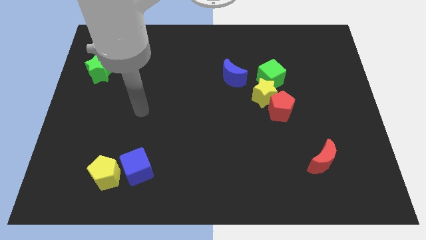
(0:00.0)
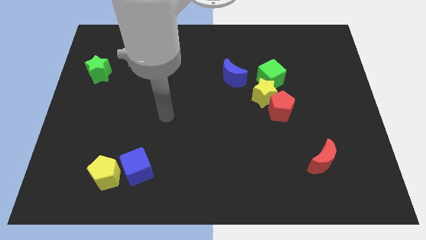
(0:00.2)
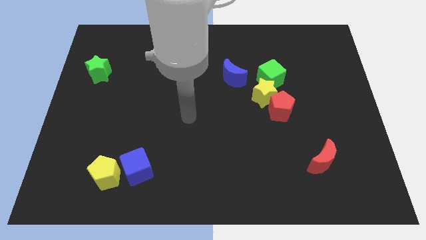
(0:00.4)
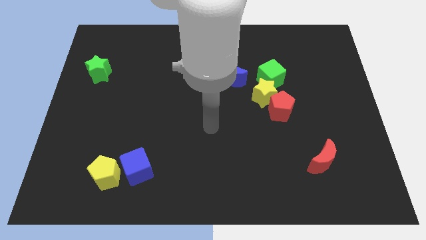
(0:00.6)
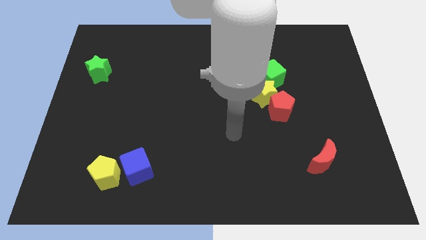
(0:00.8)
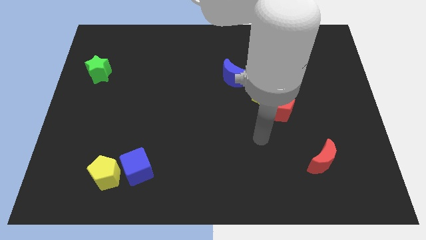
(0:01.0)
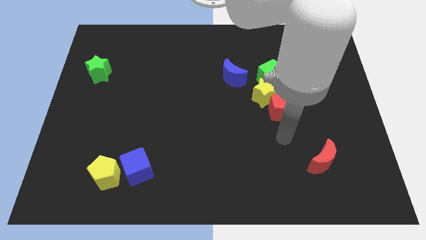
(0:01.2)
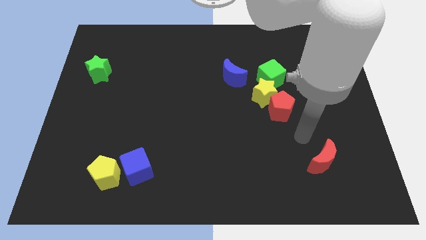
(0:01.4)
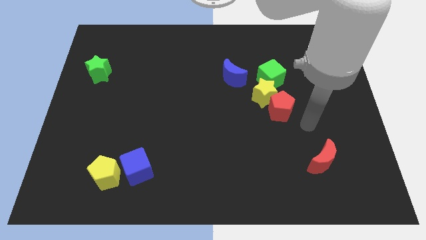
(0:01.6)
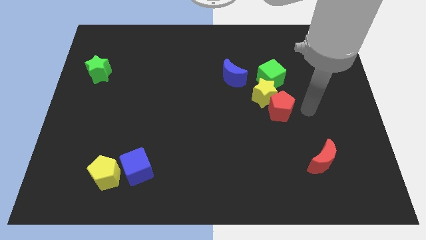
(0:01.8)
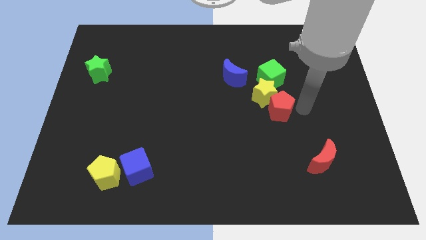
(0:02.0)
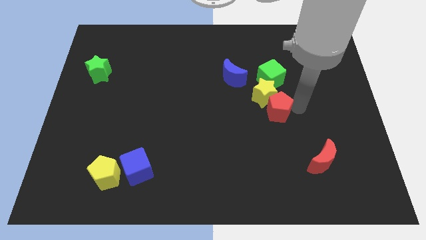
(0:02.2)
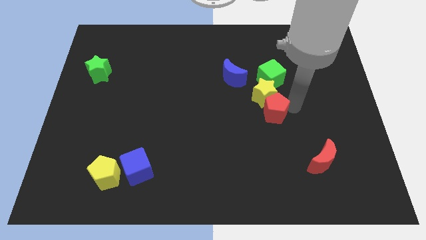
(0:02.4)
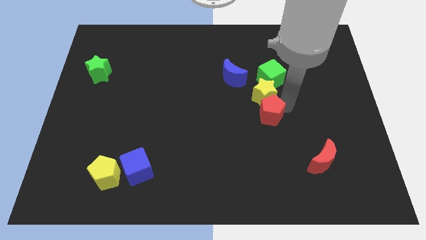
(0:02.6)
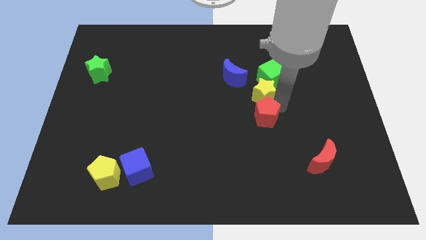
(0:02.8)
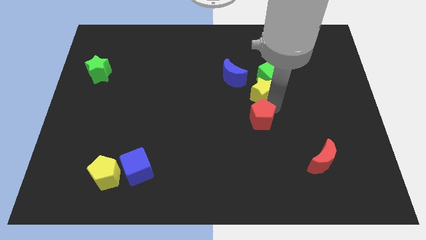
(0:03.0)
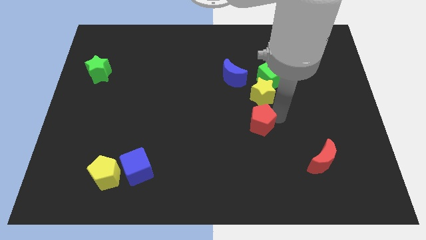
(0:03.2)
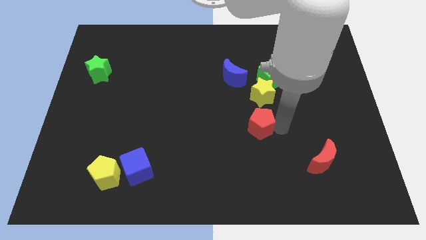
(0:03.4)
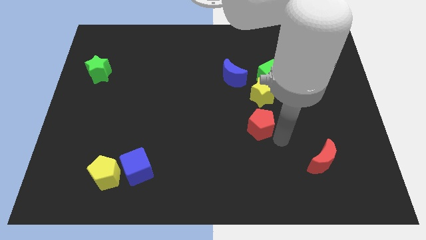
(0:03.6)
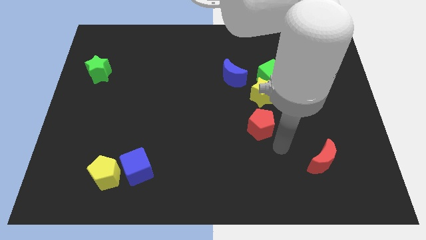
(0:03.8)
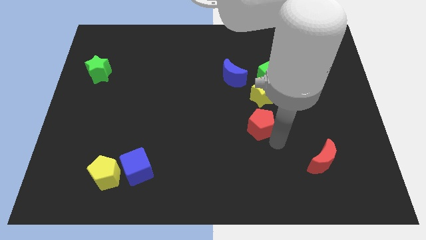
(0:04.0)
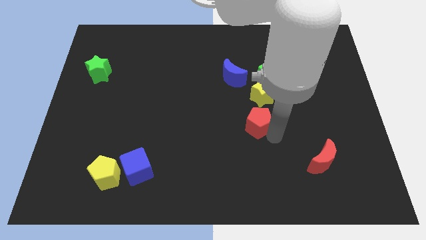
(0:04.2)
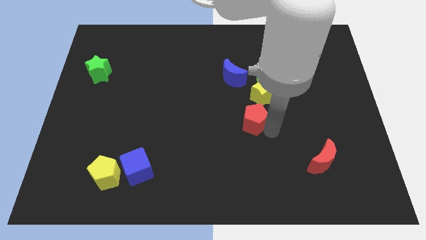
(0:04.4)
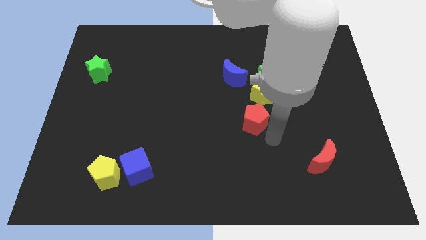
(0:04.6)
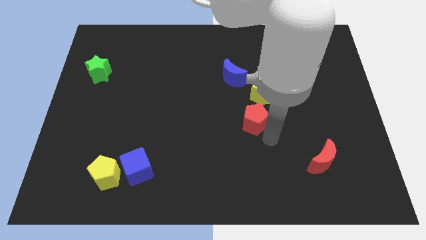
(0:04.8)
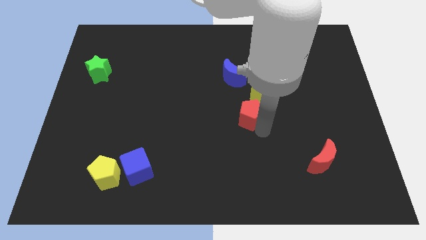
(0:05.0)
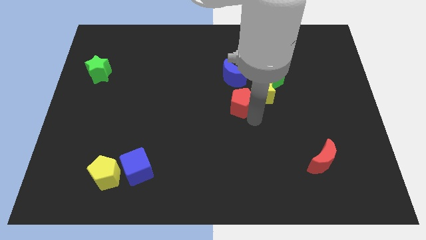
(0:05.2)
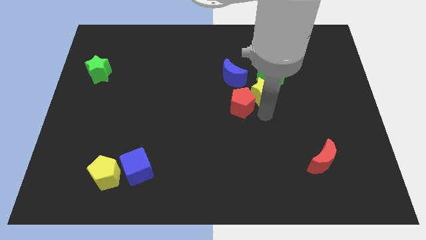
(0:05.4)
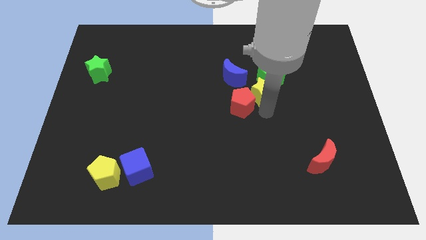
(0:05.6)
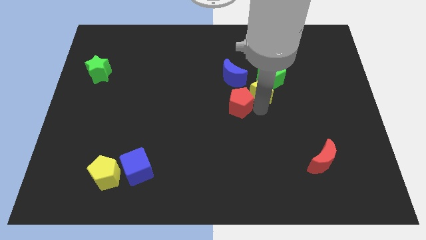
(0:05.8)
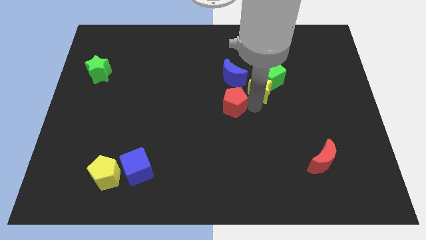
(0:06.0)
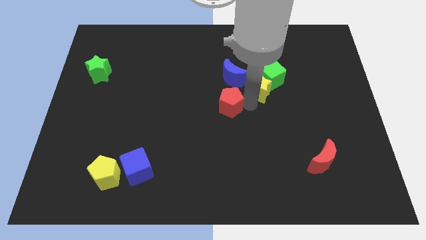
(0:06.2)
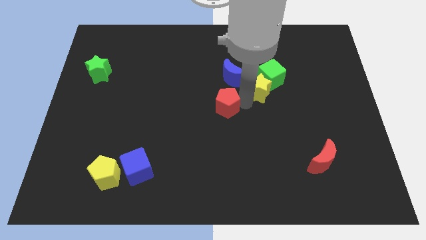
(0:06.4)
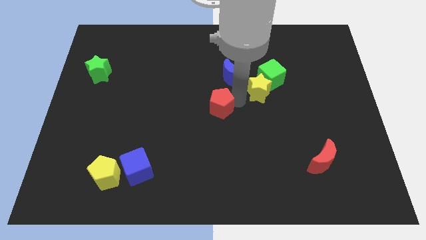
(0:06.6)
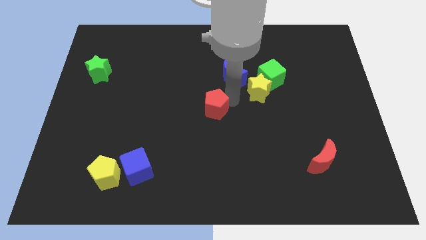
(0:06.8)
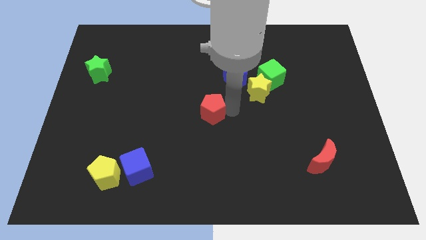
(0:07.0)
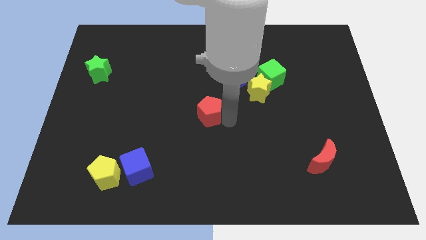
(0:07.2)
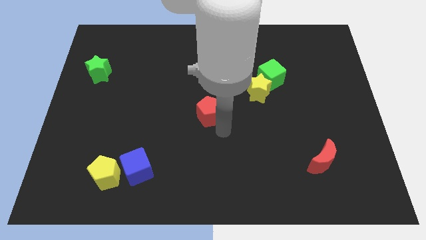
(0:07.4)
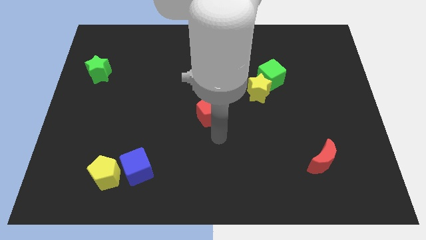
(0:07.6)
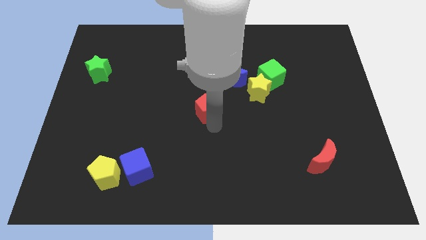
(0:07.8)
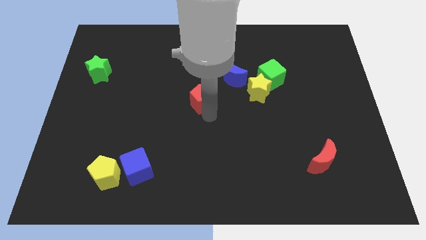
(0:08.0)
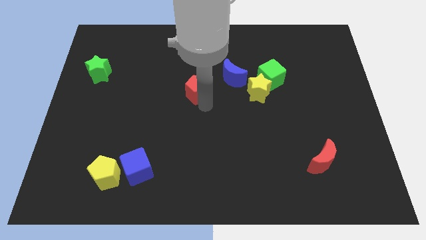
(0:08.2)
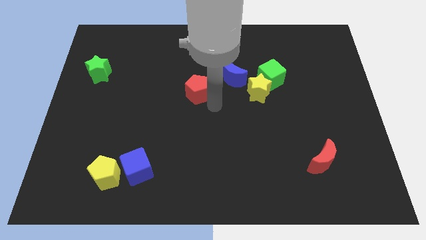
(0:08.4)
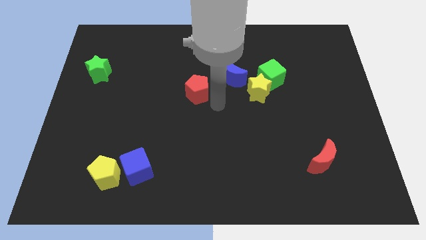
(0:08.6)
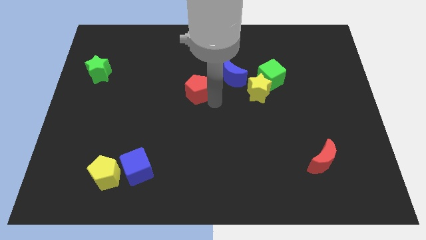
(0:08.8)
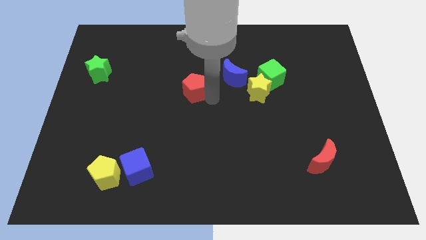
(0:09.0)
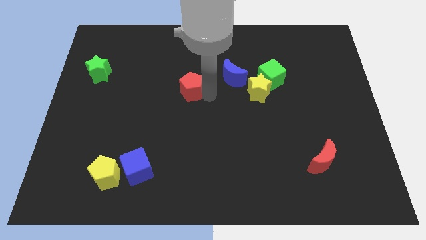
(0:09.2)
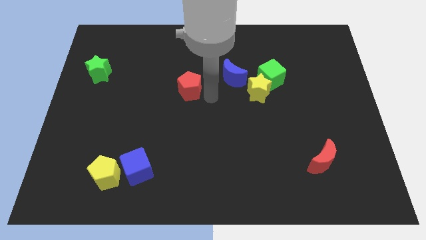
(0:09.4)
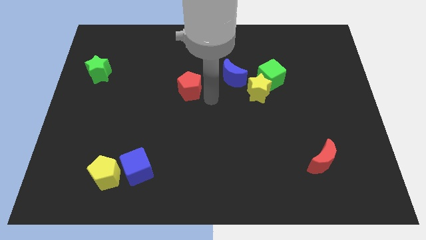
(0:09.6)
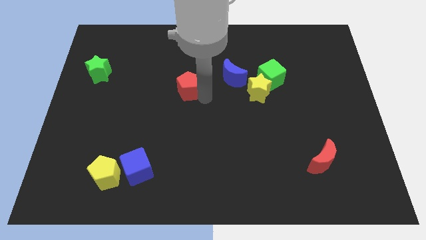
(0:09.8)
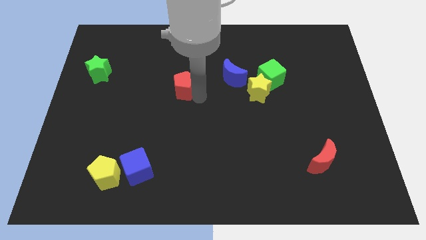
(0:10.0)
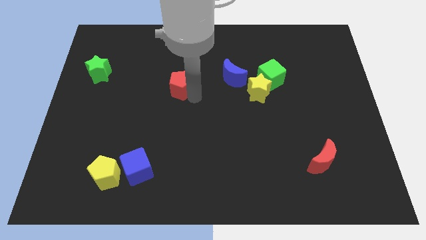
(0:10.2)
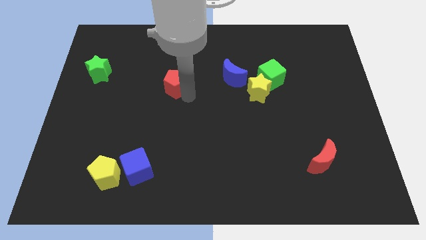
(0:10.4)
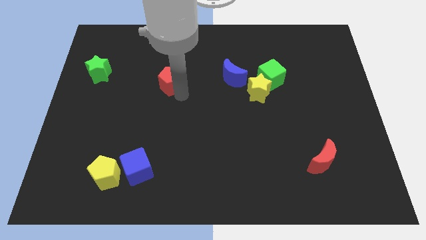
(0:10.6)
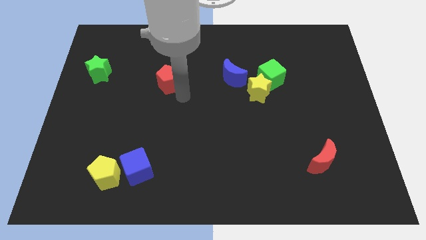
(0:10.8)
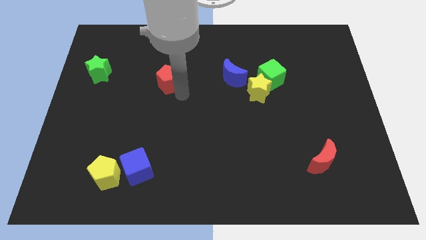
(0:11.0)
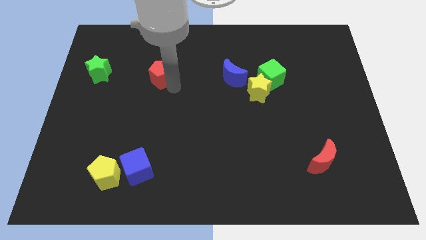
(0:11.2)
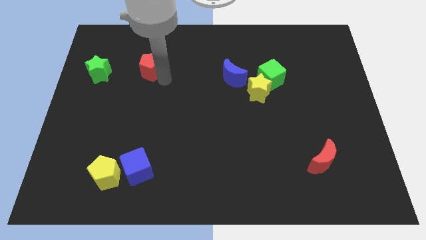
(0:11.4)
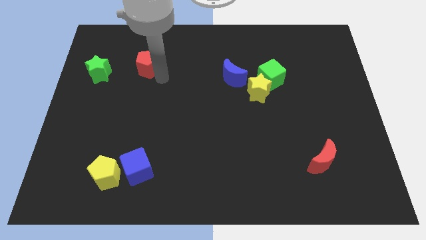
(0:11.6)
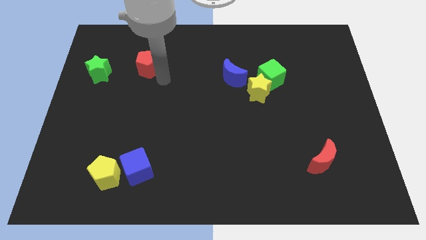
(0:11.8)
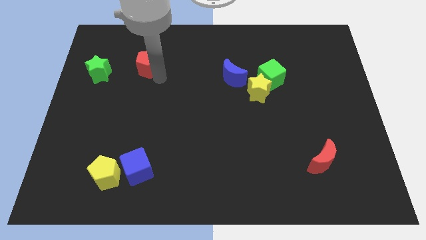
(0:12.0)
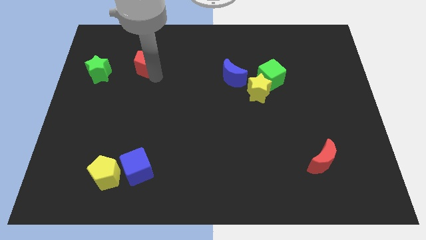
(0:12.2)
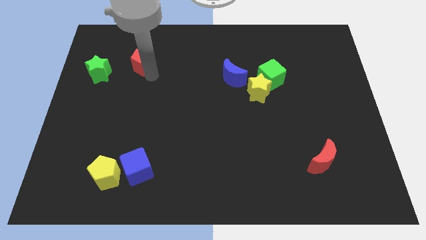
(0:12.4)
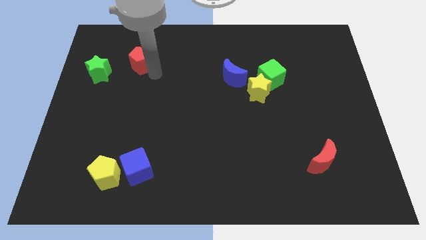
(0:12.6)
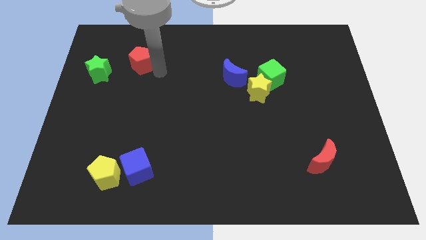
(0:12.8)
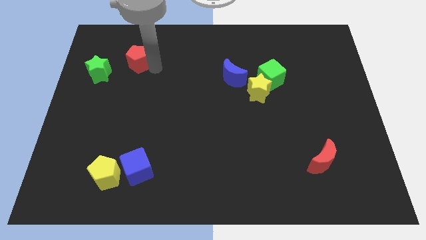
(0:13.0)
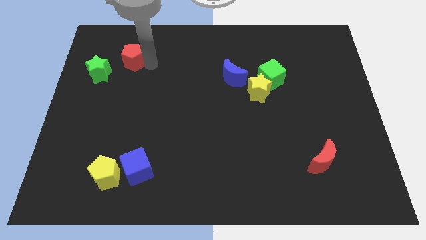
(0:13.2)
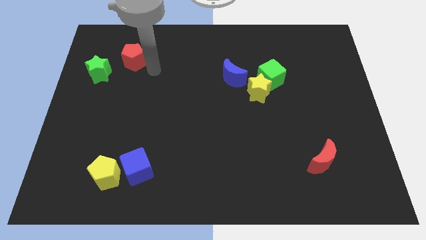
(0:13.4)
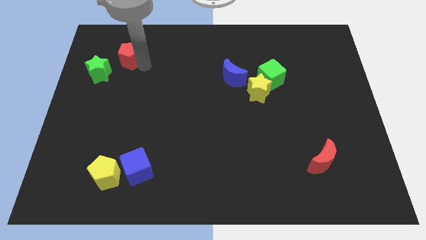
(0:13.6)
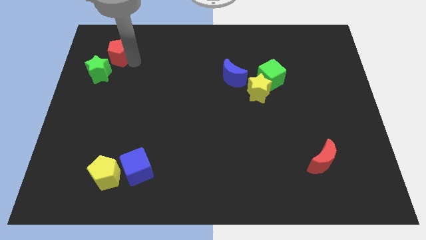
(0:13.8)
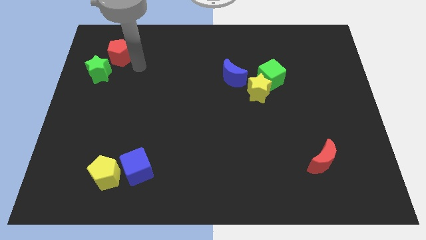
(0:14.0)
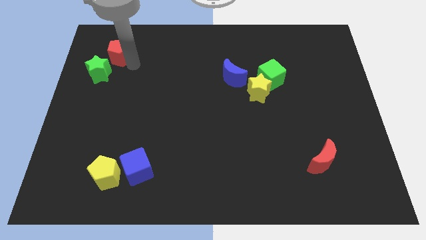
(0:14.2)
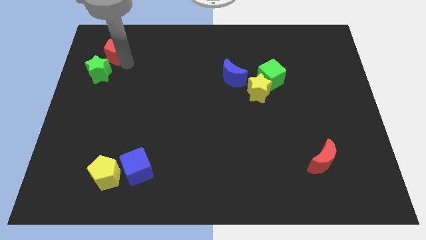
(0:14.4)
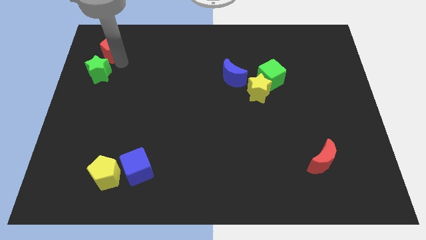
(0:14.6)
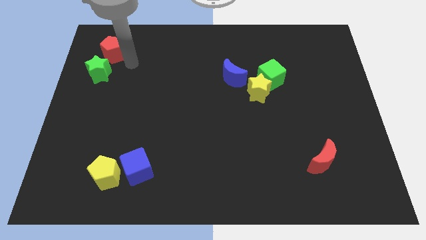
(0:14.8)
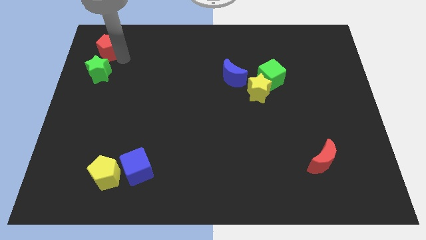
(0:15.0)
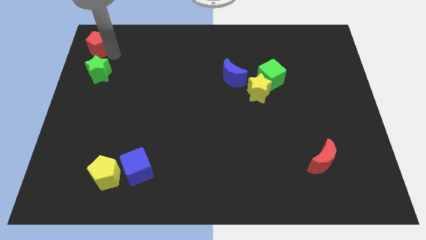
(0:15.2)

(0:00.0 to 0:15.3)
push the red pentagon to the top left of the board

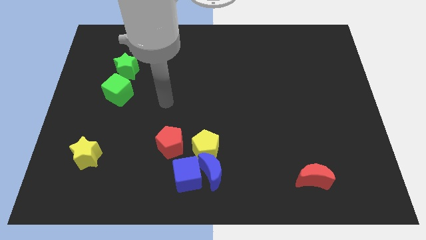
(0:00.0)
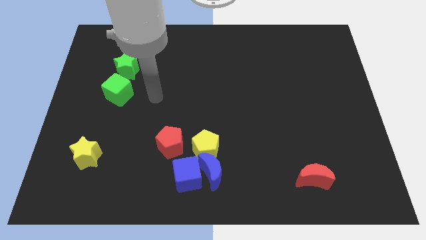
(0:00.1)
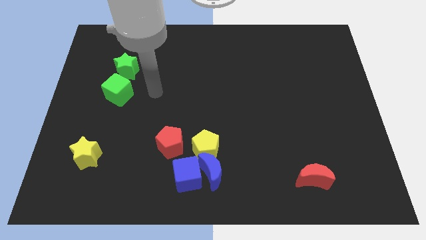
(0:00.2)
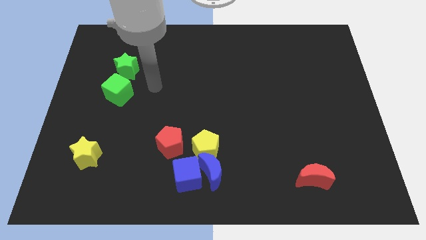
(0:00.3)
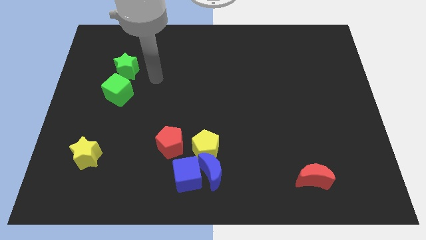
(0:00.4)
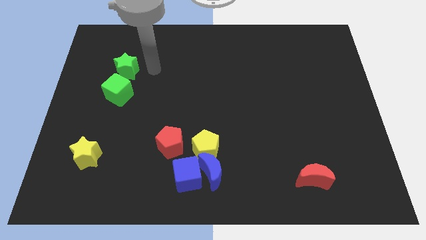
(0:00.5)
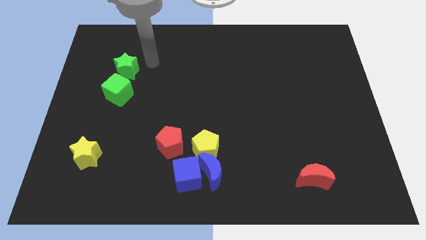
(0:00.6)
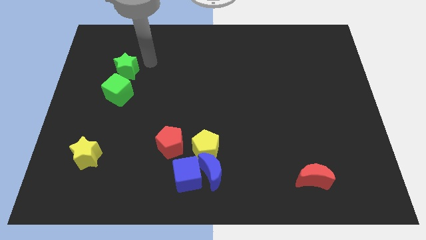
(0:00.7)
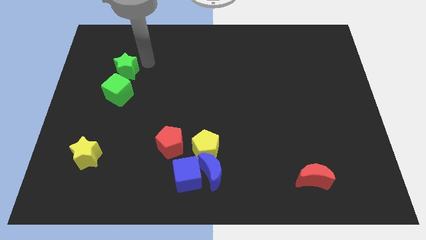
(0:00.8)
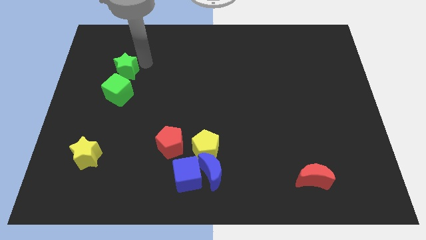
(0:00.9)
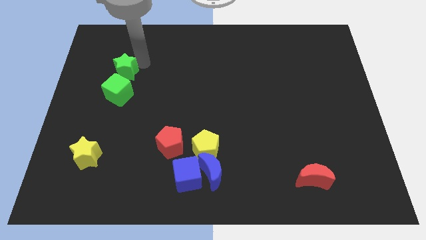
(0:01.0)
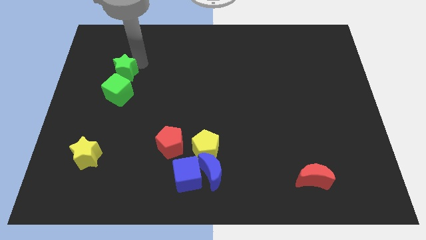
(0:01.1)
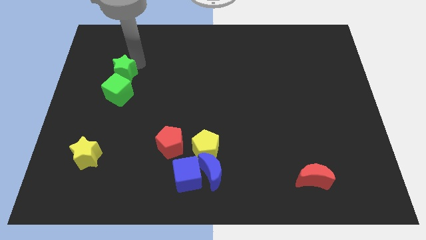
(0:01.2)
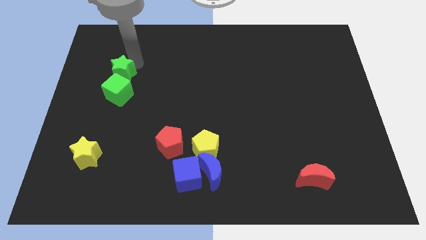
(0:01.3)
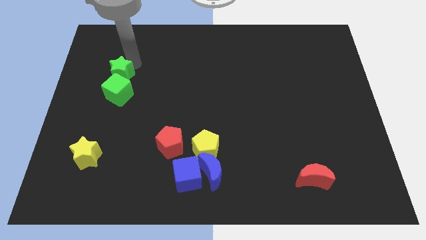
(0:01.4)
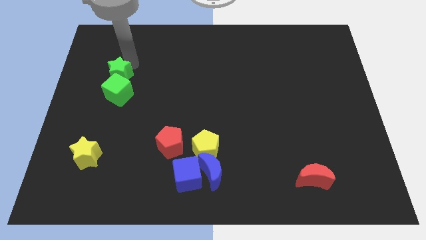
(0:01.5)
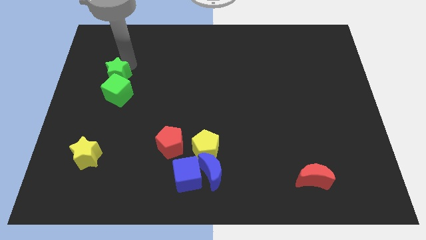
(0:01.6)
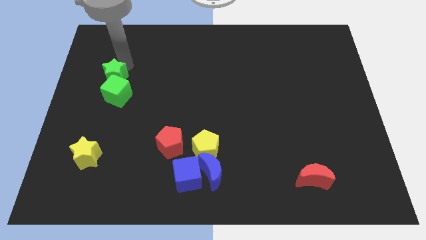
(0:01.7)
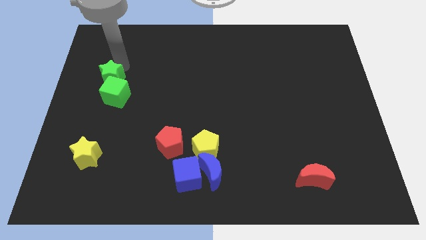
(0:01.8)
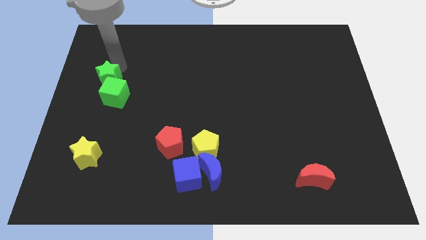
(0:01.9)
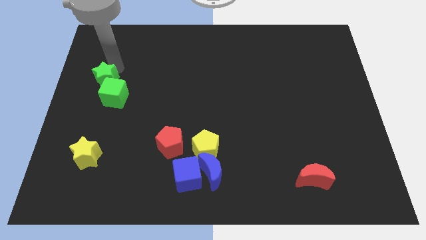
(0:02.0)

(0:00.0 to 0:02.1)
slide the green star to the left side
